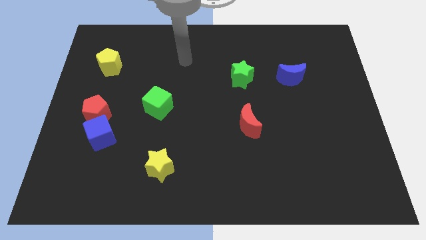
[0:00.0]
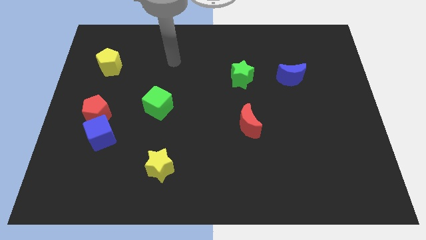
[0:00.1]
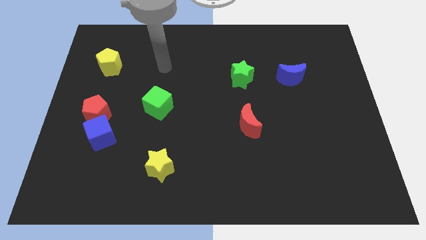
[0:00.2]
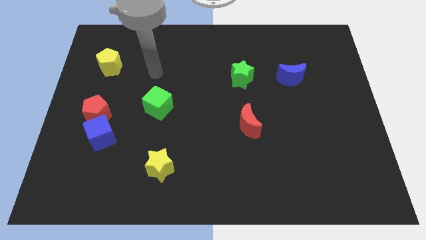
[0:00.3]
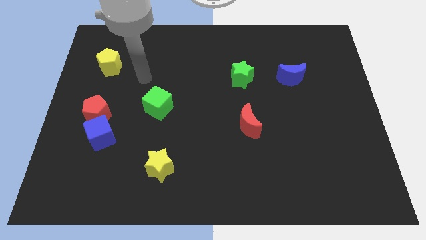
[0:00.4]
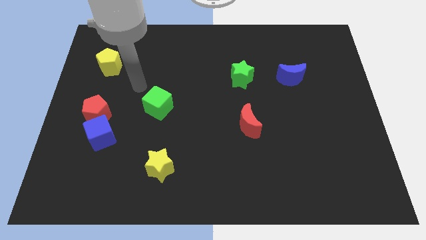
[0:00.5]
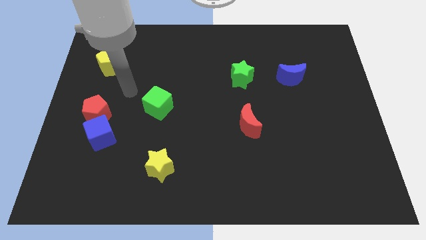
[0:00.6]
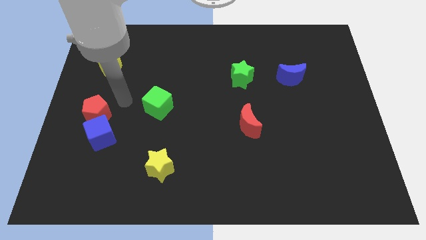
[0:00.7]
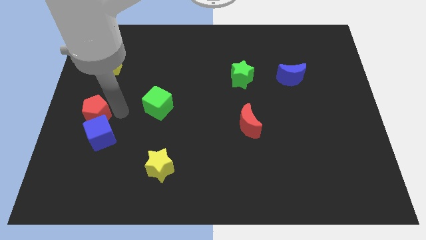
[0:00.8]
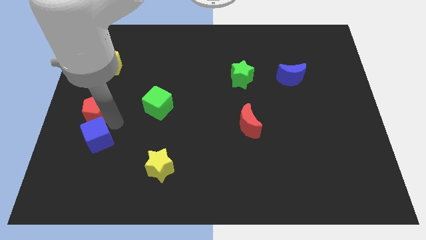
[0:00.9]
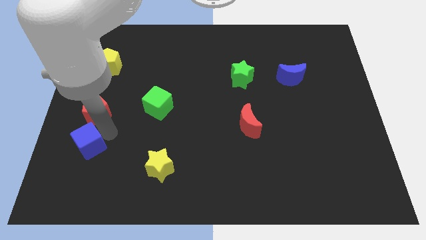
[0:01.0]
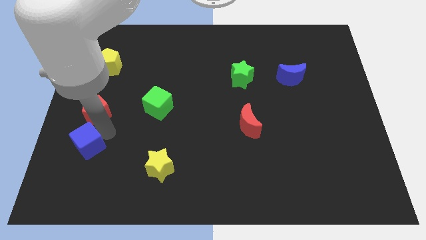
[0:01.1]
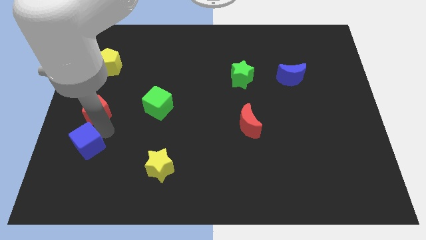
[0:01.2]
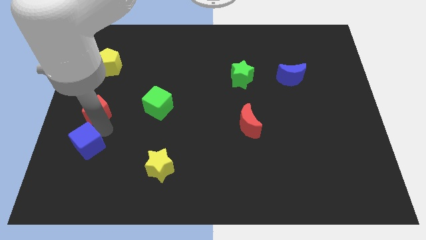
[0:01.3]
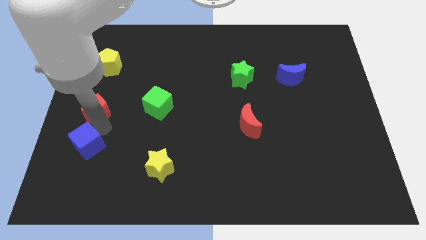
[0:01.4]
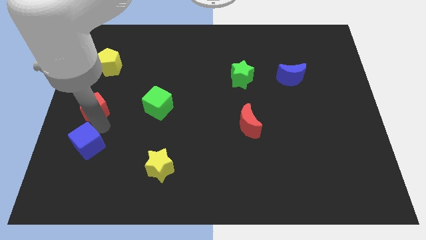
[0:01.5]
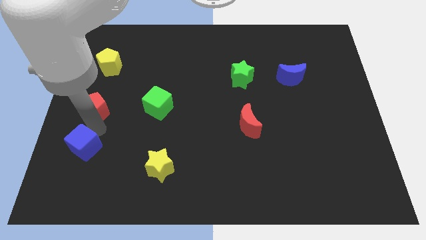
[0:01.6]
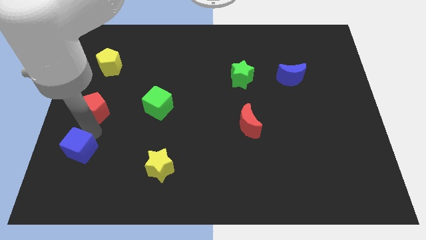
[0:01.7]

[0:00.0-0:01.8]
move the red pentagon away from the blue cube

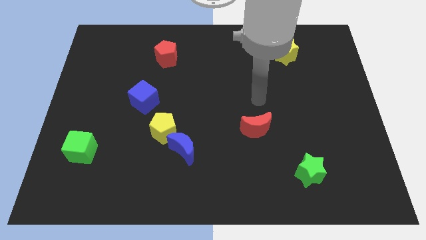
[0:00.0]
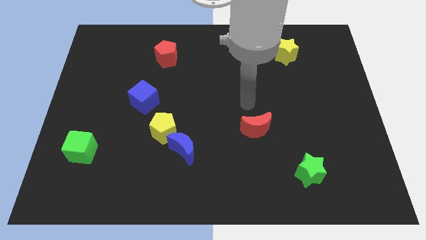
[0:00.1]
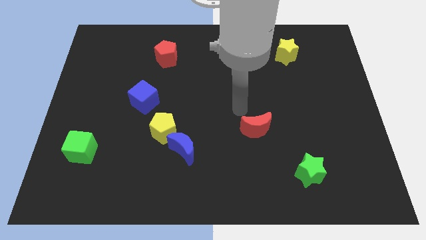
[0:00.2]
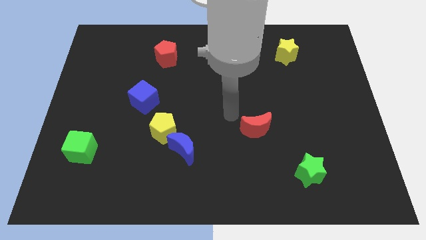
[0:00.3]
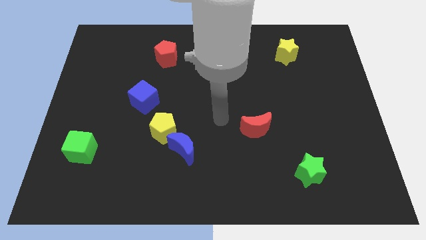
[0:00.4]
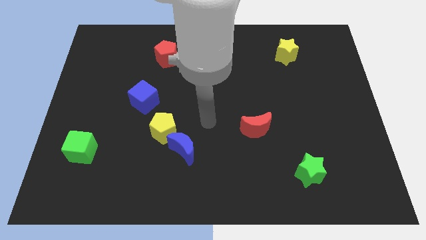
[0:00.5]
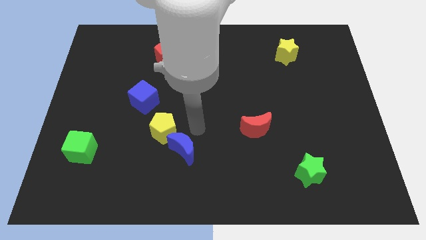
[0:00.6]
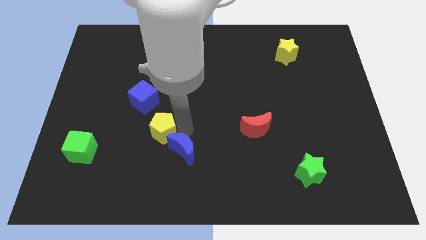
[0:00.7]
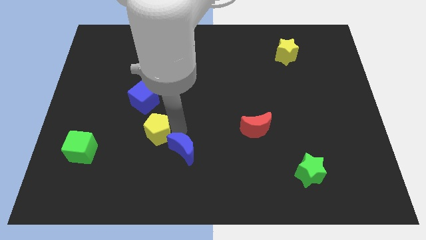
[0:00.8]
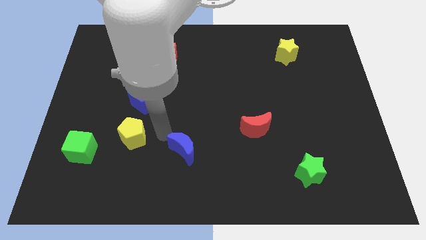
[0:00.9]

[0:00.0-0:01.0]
separate the blue moon from the yellow pentagon

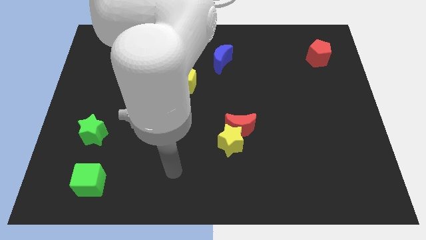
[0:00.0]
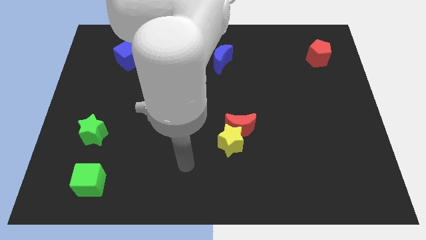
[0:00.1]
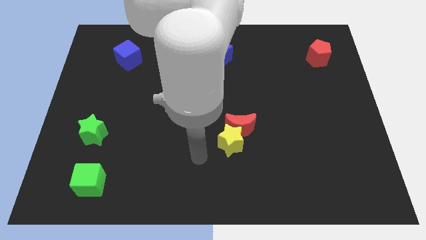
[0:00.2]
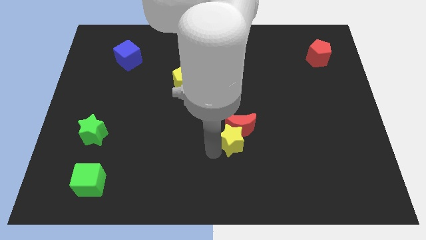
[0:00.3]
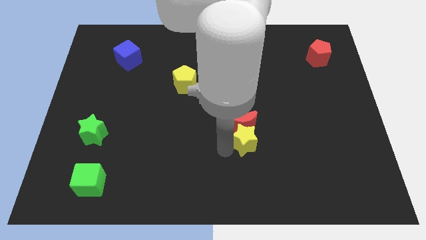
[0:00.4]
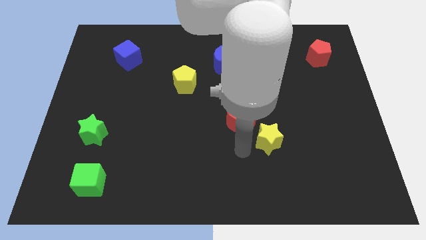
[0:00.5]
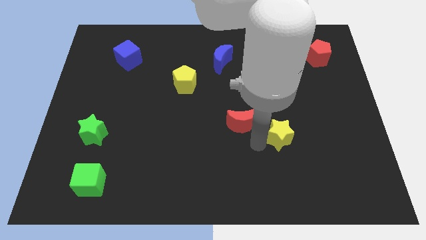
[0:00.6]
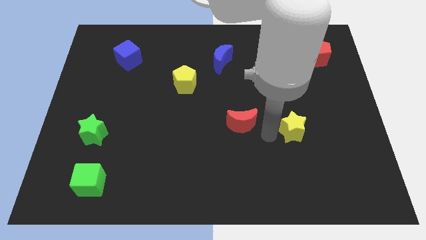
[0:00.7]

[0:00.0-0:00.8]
separate the red moon from the yellow star

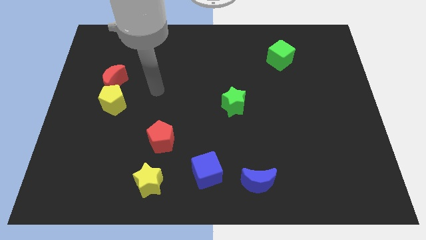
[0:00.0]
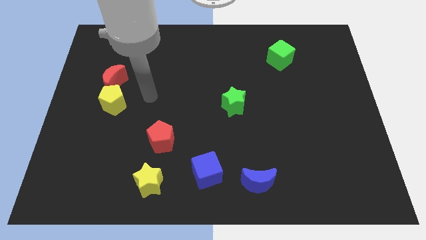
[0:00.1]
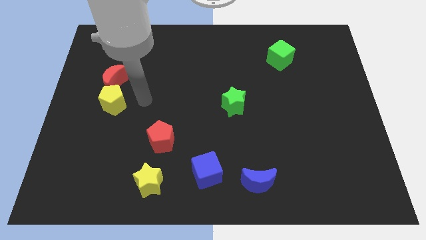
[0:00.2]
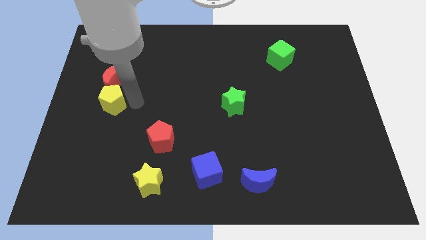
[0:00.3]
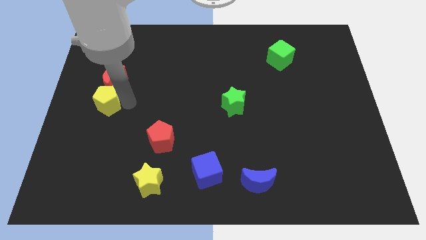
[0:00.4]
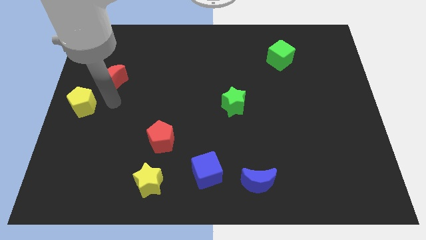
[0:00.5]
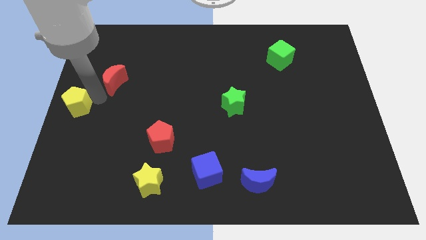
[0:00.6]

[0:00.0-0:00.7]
pull the red moon apart from the yellow pentagon

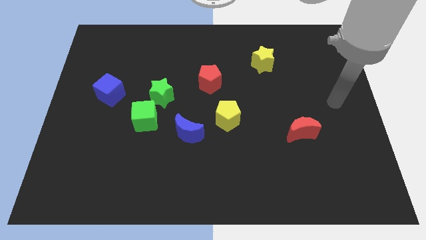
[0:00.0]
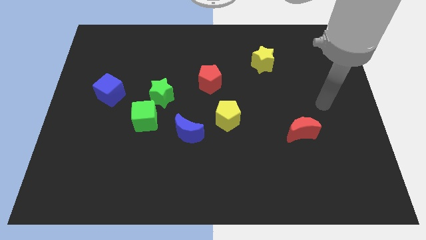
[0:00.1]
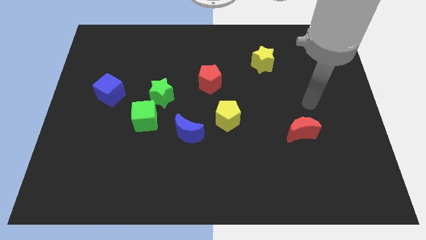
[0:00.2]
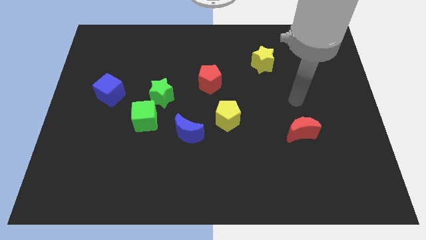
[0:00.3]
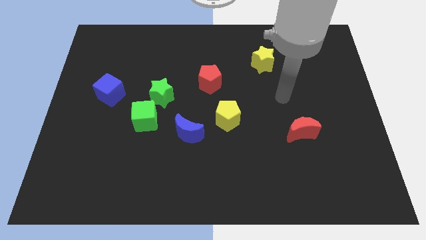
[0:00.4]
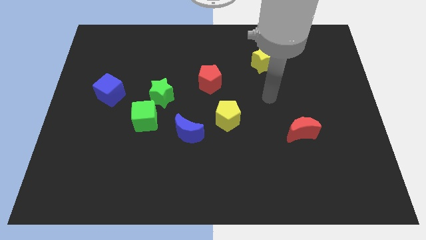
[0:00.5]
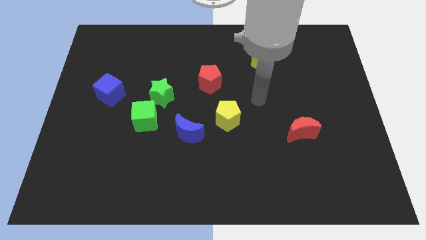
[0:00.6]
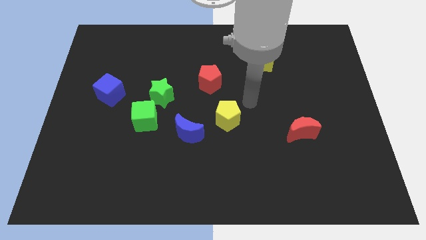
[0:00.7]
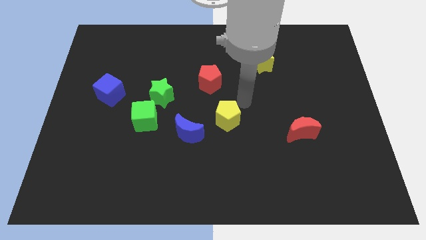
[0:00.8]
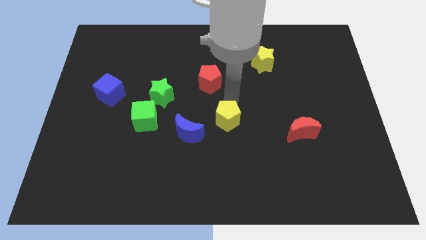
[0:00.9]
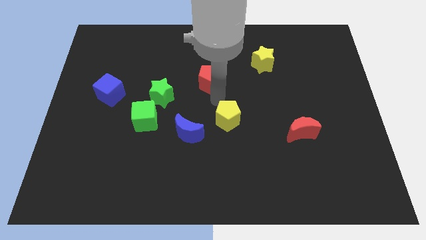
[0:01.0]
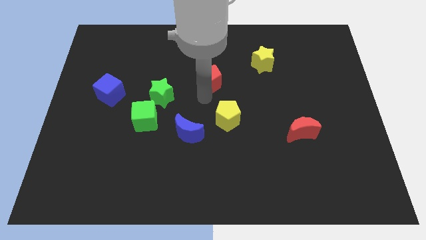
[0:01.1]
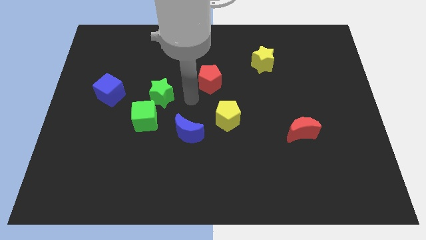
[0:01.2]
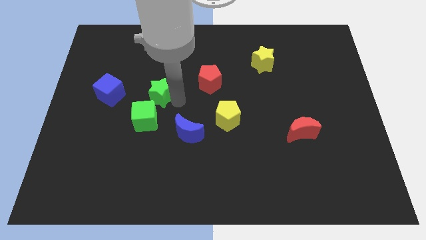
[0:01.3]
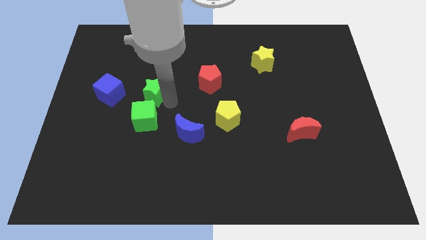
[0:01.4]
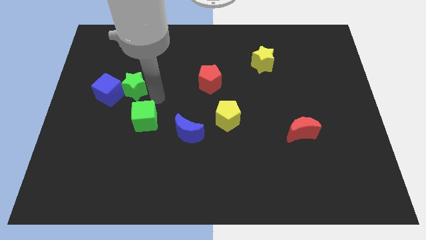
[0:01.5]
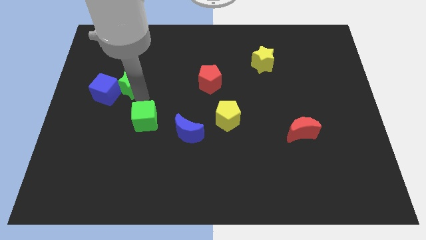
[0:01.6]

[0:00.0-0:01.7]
separate the green cube from the green star

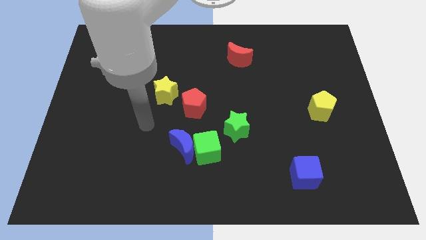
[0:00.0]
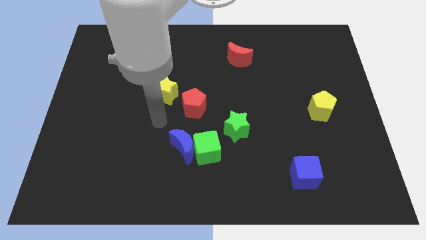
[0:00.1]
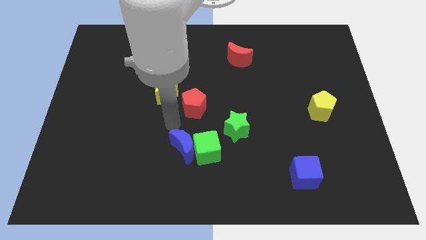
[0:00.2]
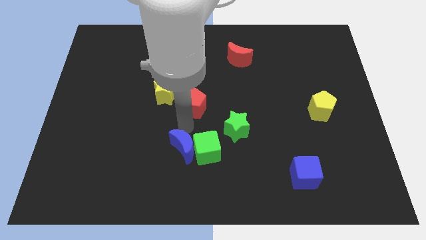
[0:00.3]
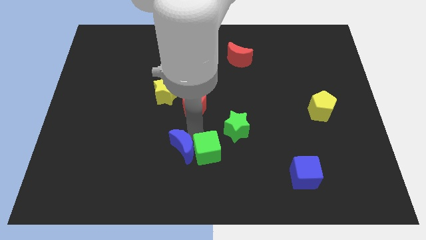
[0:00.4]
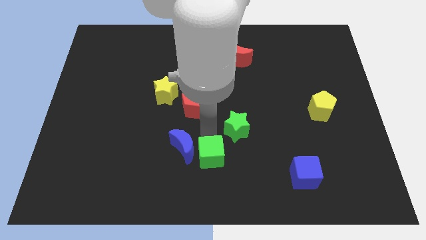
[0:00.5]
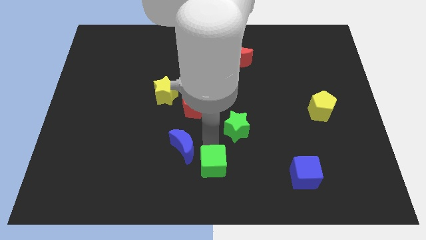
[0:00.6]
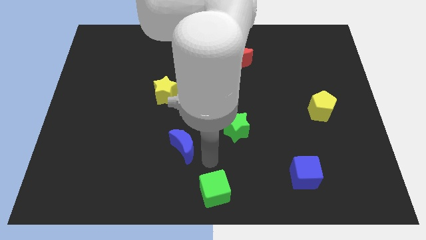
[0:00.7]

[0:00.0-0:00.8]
move the blue moon away from the green cube

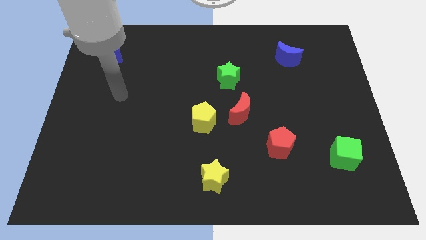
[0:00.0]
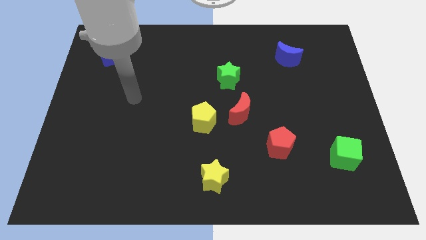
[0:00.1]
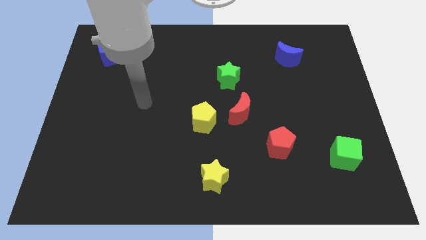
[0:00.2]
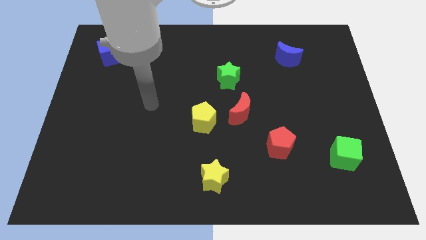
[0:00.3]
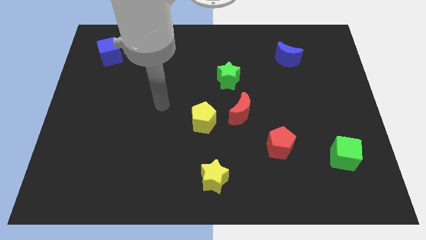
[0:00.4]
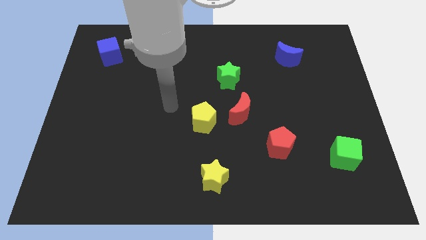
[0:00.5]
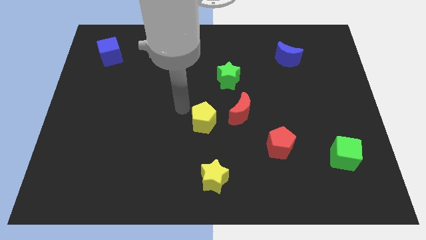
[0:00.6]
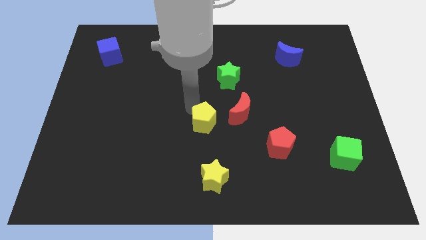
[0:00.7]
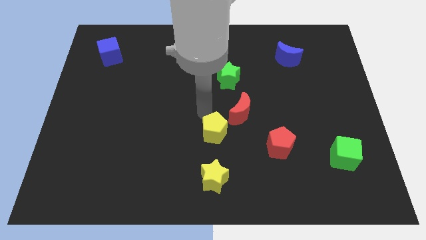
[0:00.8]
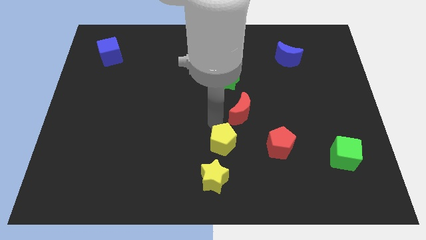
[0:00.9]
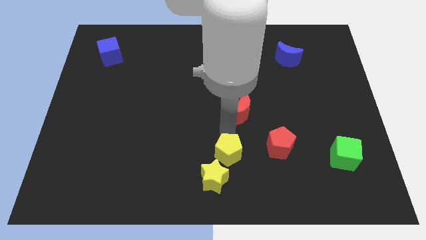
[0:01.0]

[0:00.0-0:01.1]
separate the red moon from the yellow pentagon

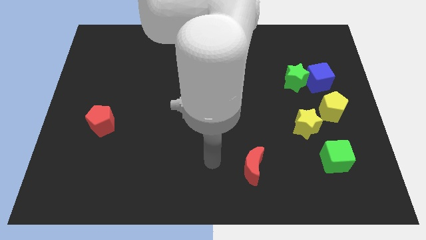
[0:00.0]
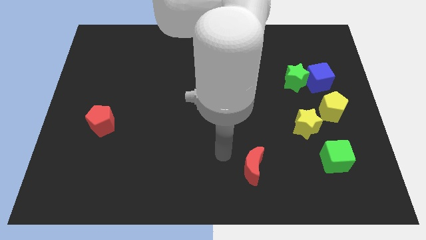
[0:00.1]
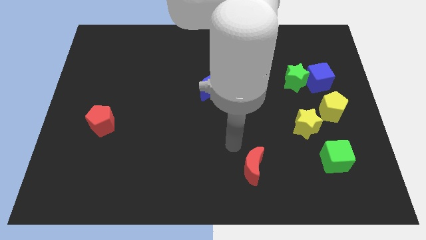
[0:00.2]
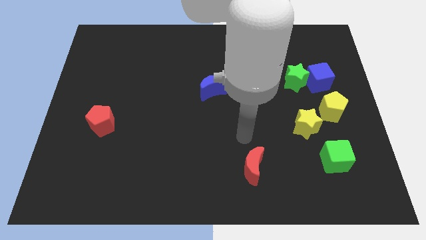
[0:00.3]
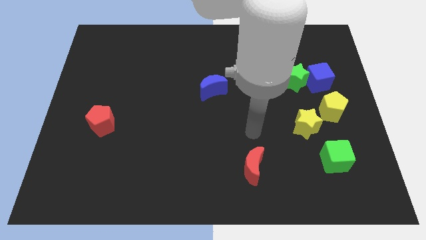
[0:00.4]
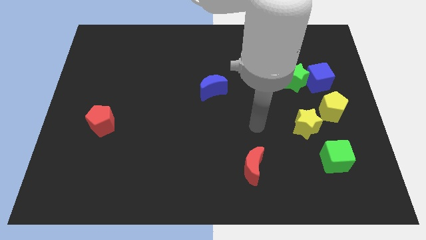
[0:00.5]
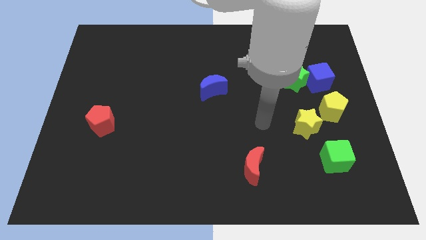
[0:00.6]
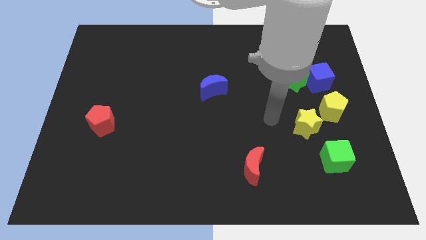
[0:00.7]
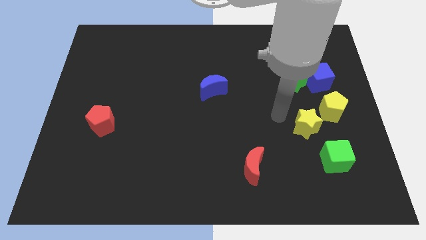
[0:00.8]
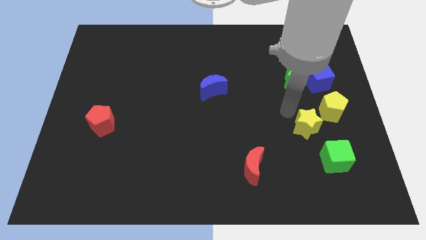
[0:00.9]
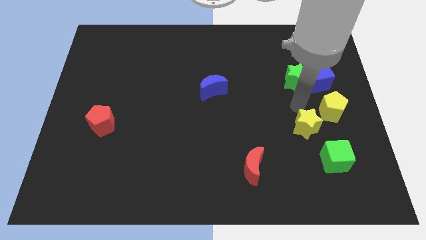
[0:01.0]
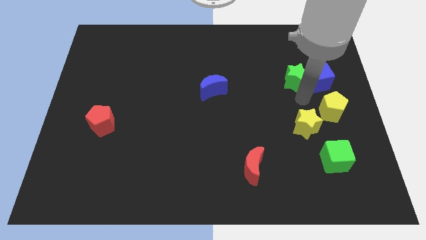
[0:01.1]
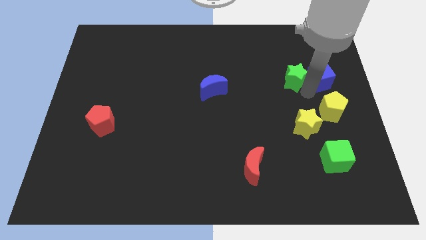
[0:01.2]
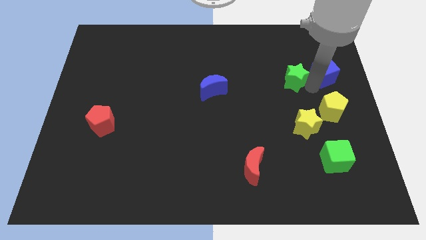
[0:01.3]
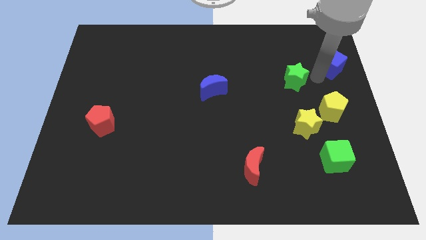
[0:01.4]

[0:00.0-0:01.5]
move the green star away from the blue cube
